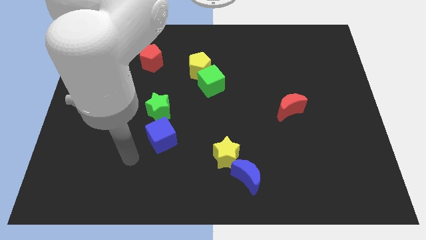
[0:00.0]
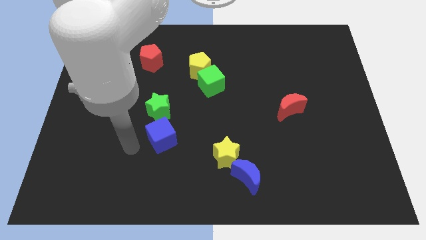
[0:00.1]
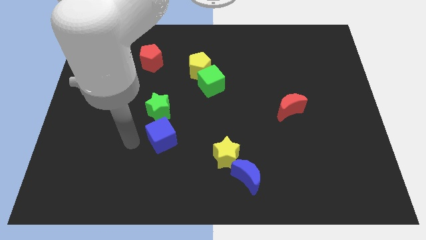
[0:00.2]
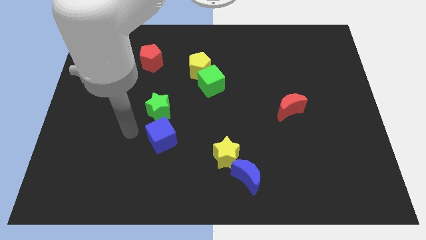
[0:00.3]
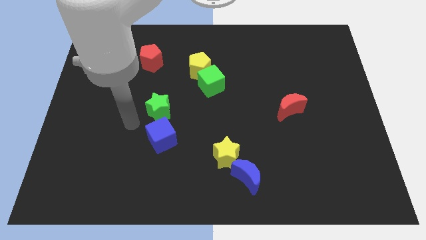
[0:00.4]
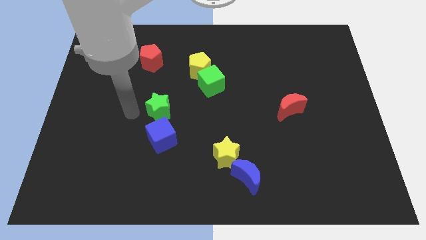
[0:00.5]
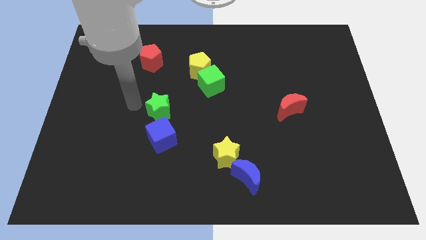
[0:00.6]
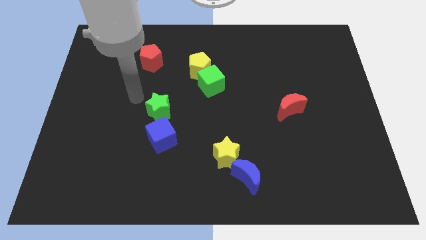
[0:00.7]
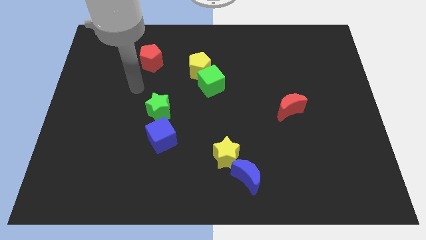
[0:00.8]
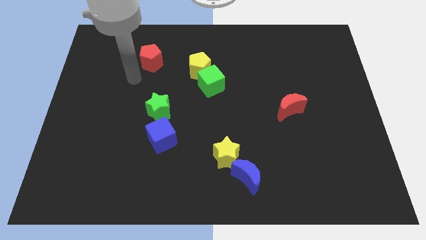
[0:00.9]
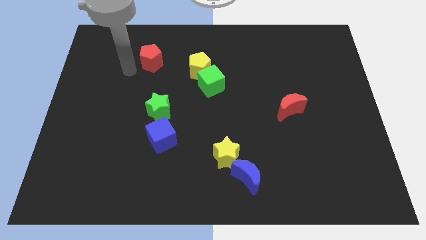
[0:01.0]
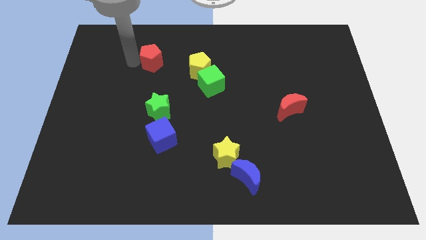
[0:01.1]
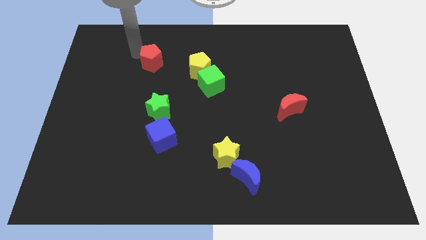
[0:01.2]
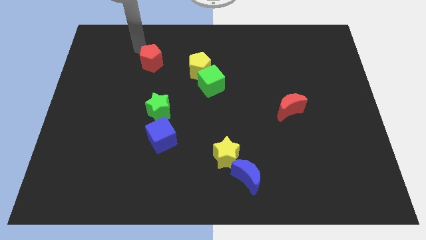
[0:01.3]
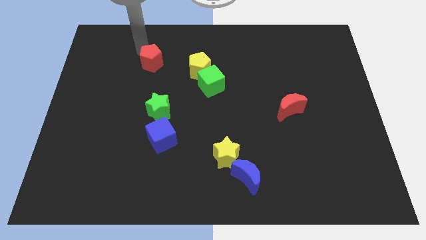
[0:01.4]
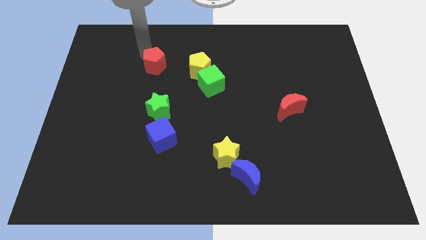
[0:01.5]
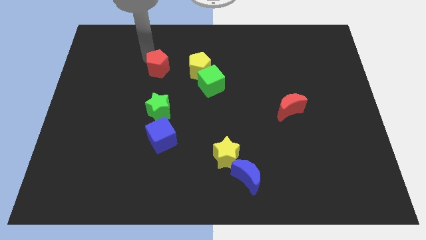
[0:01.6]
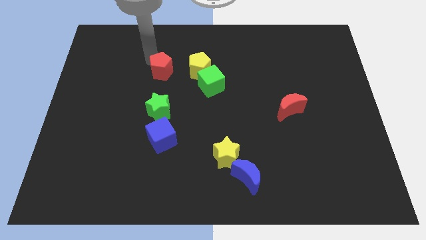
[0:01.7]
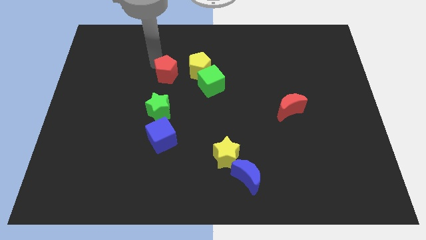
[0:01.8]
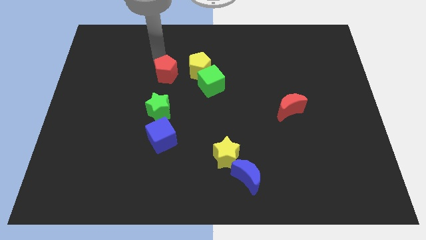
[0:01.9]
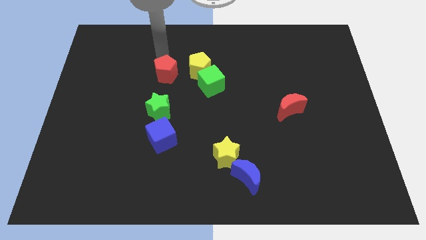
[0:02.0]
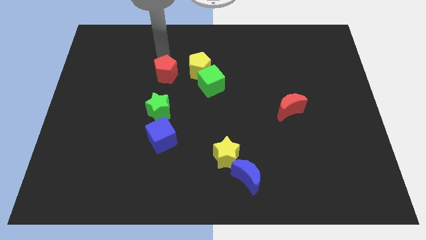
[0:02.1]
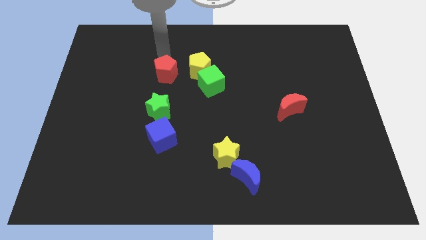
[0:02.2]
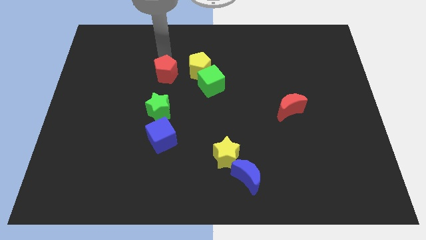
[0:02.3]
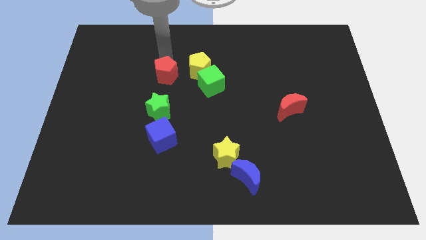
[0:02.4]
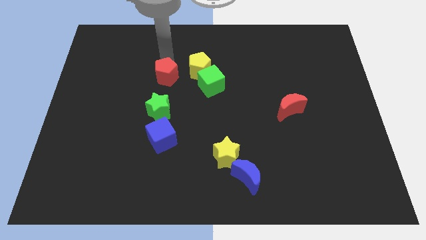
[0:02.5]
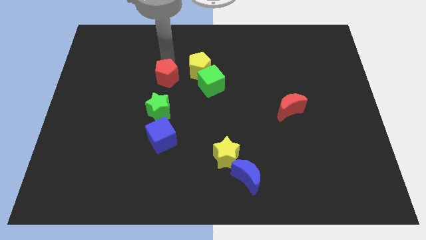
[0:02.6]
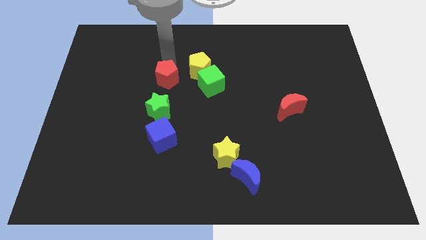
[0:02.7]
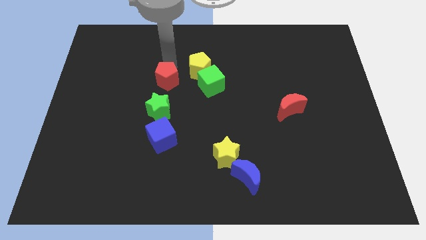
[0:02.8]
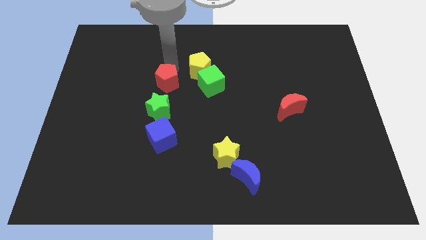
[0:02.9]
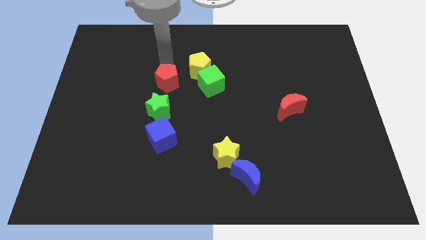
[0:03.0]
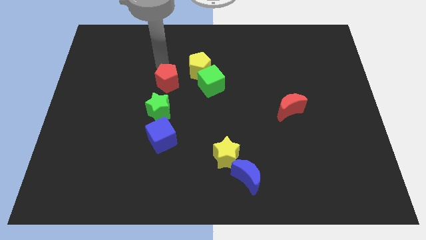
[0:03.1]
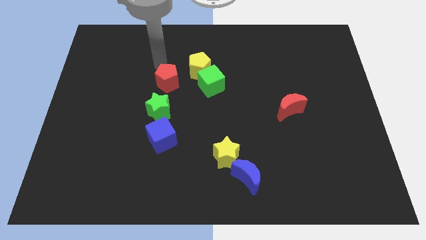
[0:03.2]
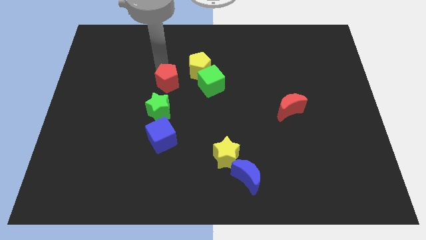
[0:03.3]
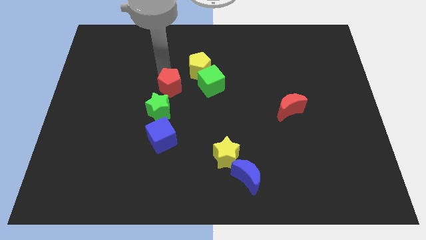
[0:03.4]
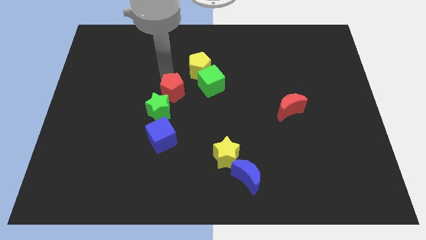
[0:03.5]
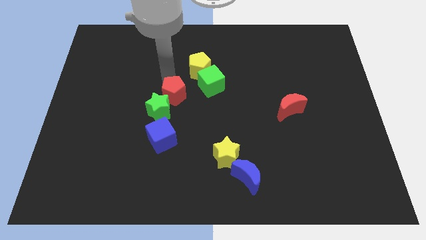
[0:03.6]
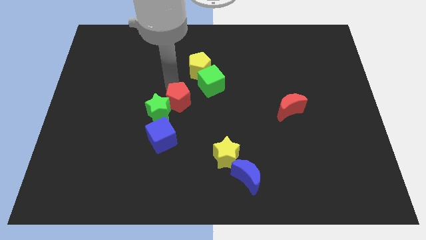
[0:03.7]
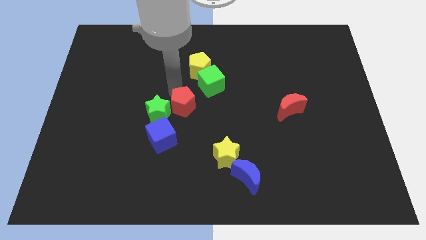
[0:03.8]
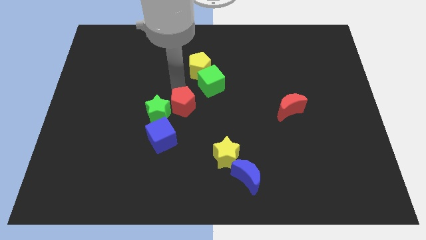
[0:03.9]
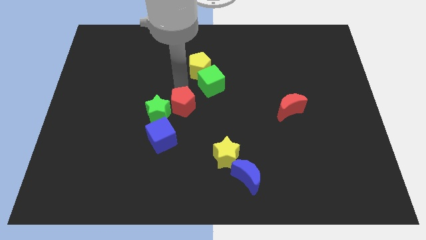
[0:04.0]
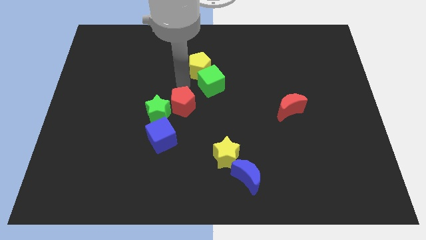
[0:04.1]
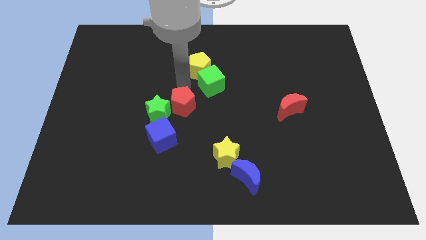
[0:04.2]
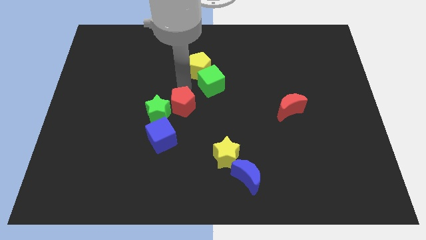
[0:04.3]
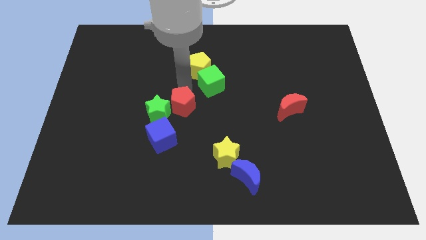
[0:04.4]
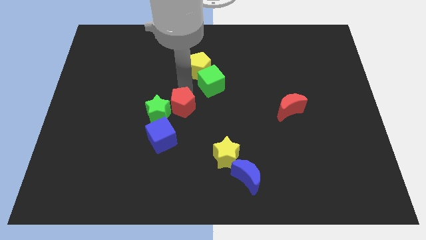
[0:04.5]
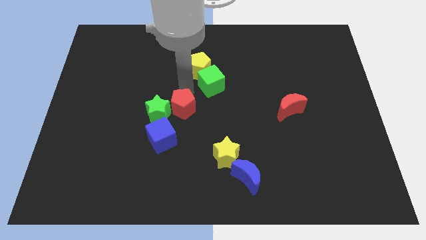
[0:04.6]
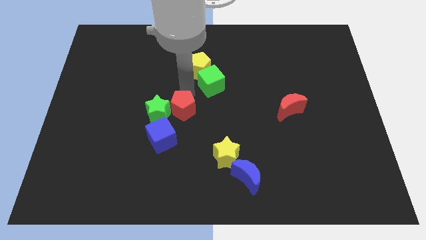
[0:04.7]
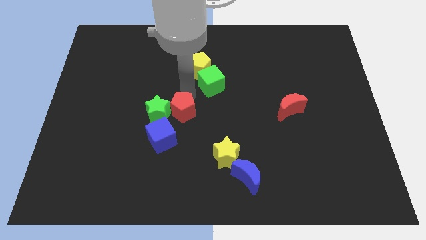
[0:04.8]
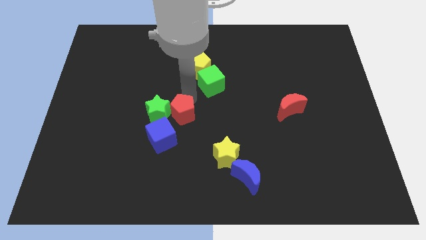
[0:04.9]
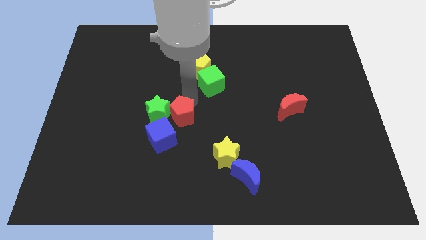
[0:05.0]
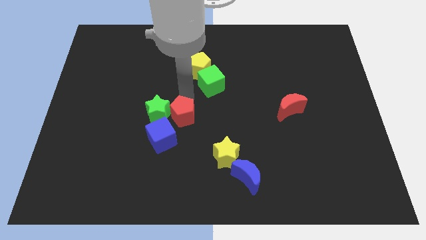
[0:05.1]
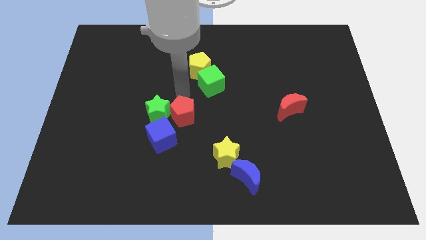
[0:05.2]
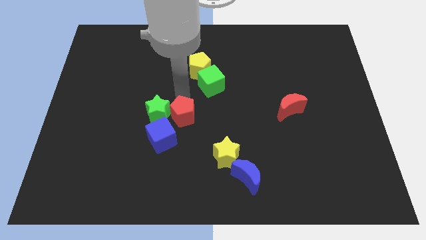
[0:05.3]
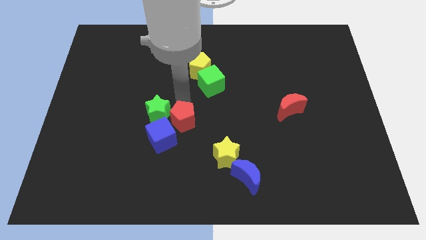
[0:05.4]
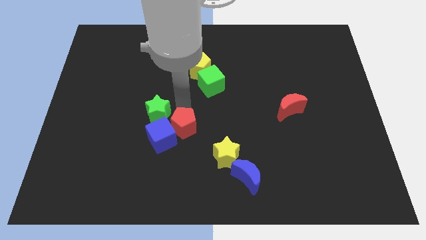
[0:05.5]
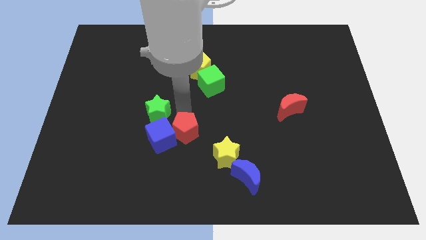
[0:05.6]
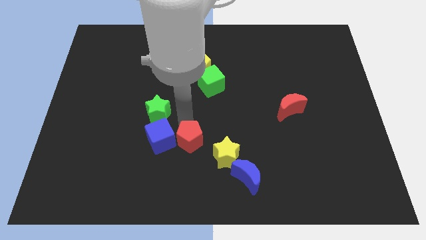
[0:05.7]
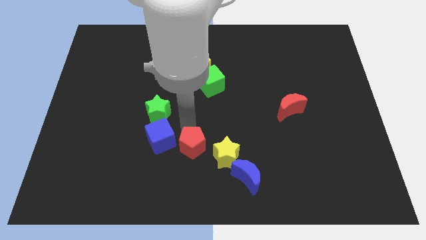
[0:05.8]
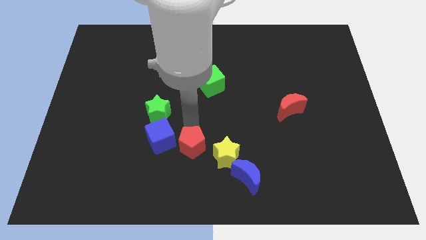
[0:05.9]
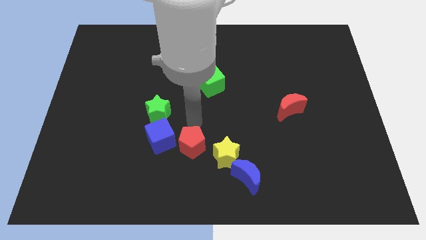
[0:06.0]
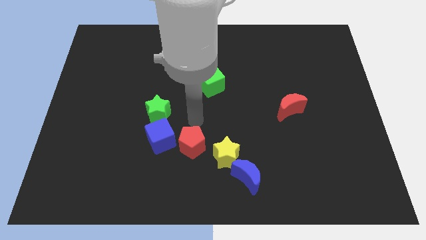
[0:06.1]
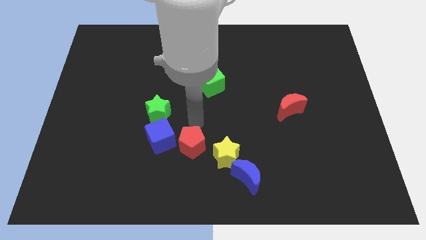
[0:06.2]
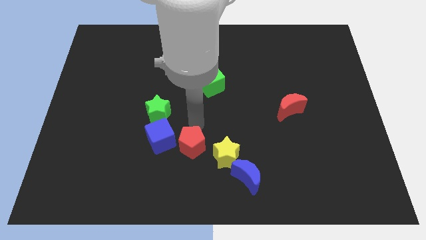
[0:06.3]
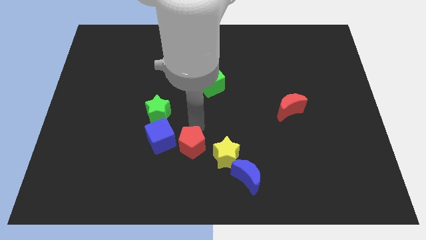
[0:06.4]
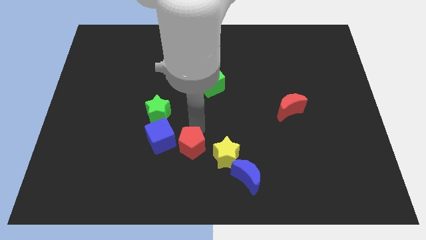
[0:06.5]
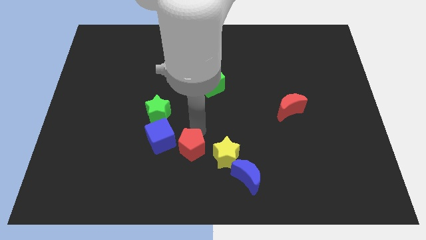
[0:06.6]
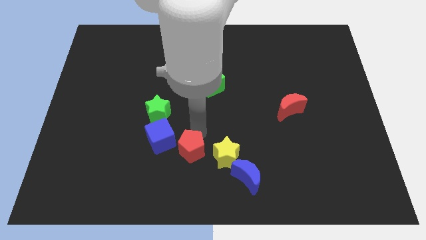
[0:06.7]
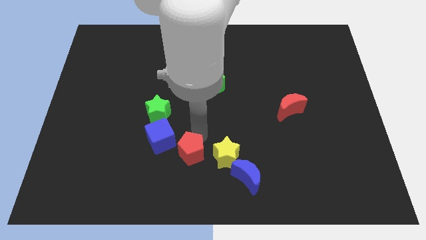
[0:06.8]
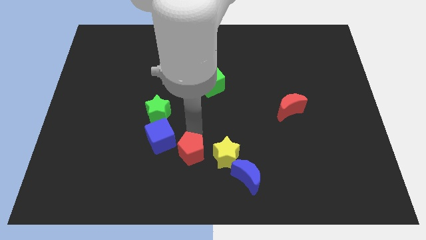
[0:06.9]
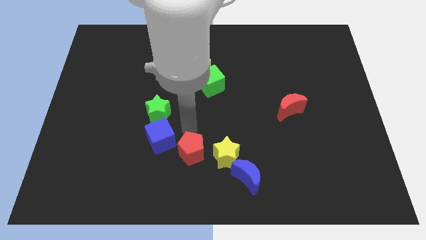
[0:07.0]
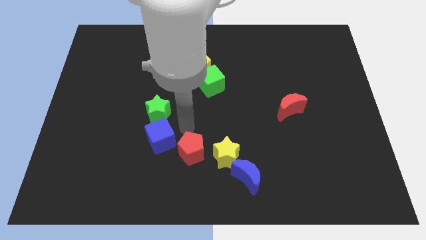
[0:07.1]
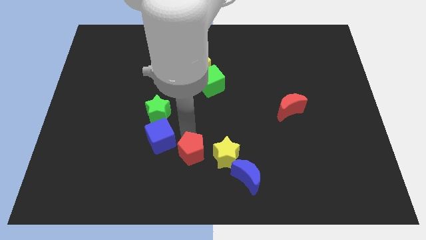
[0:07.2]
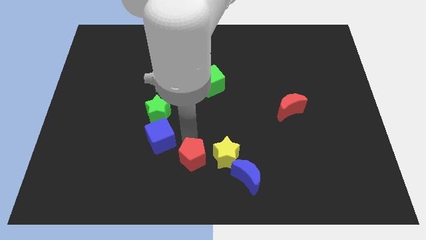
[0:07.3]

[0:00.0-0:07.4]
move the red pentagon to the bottom
